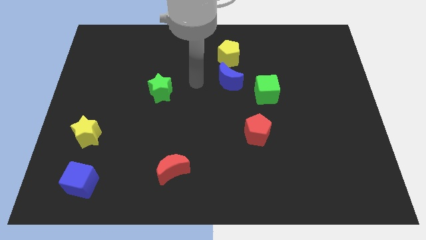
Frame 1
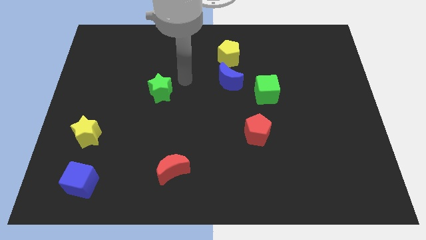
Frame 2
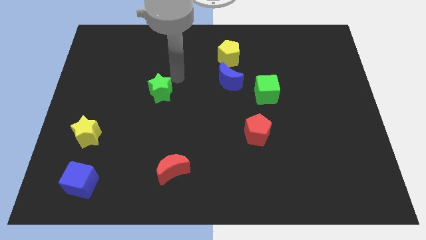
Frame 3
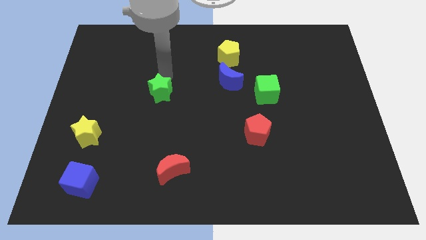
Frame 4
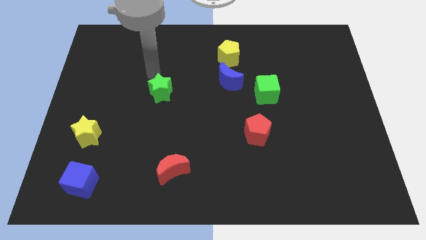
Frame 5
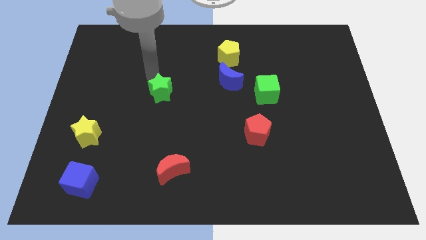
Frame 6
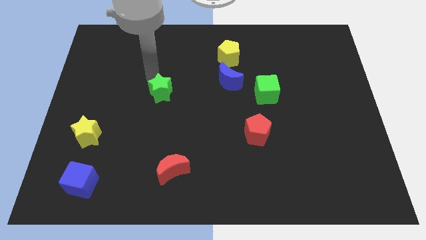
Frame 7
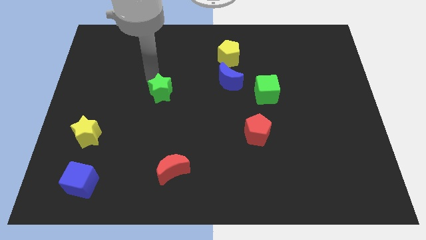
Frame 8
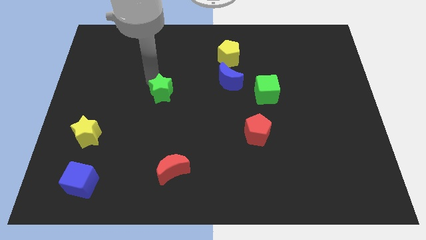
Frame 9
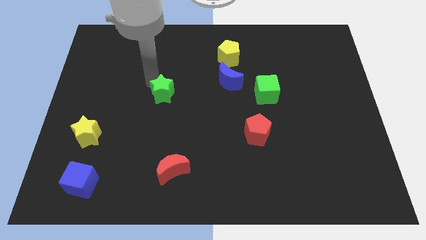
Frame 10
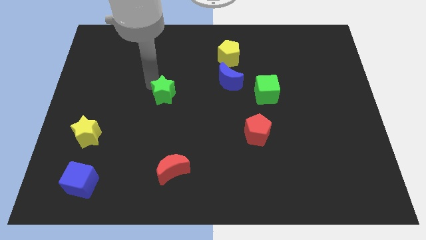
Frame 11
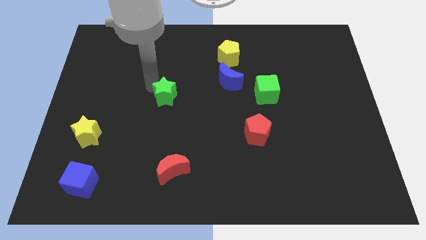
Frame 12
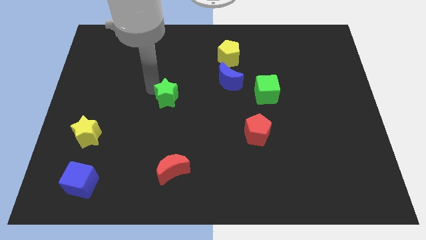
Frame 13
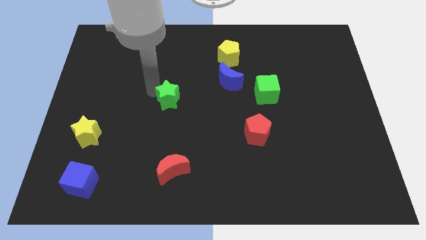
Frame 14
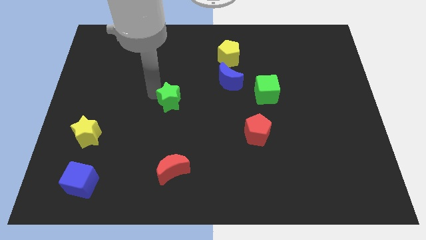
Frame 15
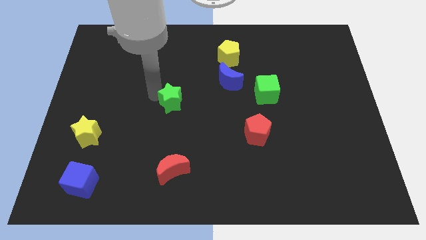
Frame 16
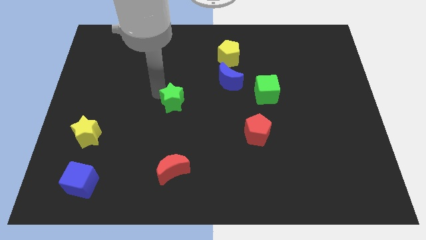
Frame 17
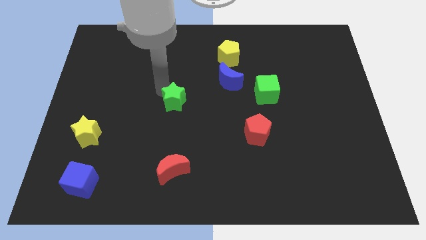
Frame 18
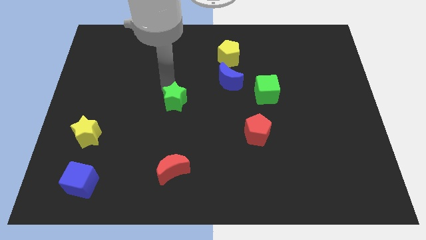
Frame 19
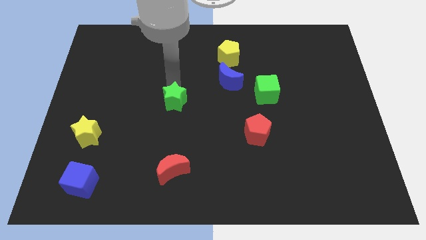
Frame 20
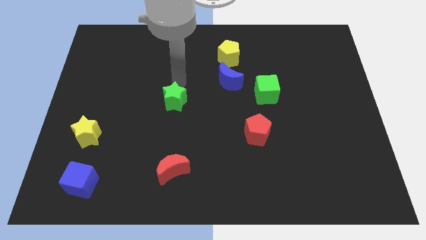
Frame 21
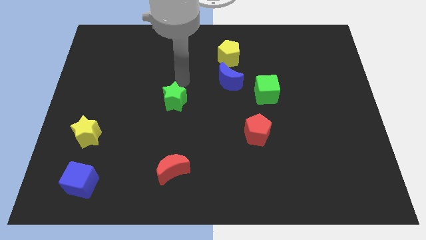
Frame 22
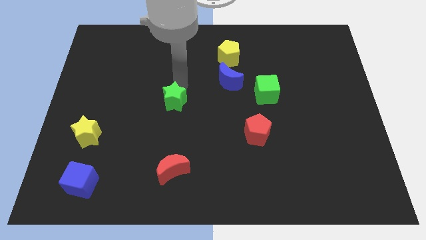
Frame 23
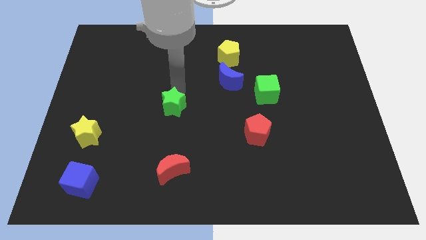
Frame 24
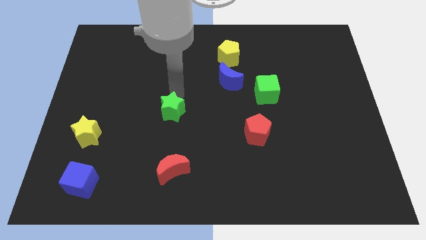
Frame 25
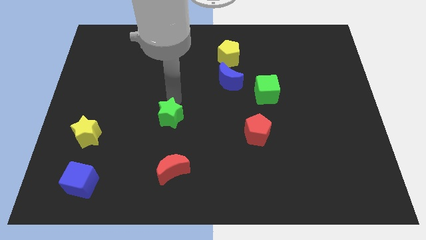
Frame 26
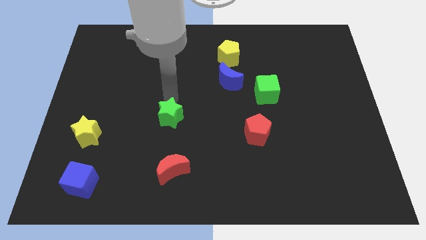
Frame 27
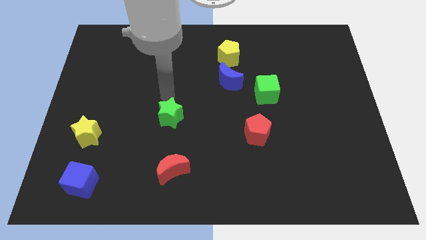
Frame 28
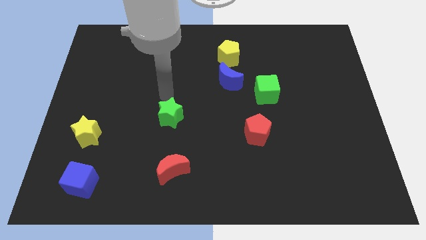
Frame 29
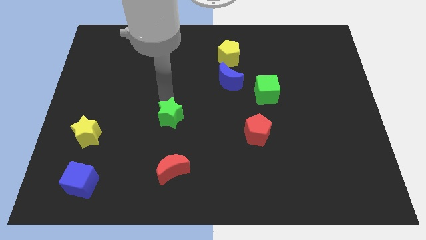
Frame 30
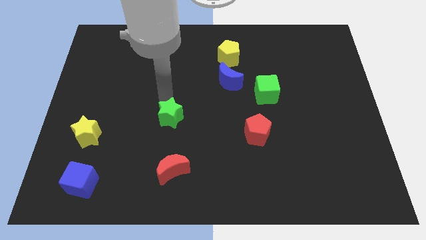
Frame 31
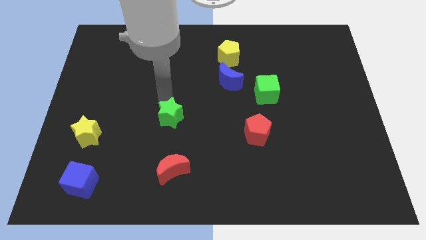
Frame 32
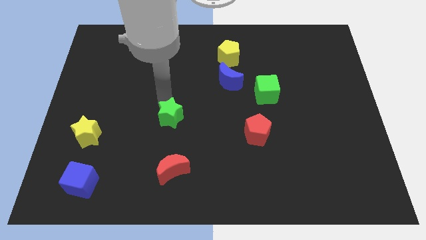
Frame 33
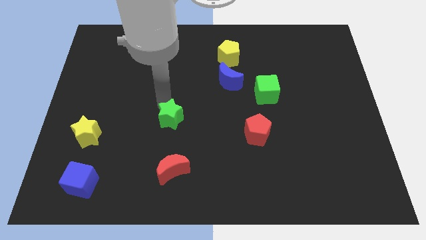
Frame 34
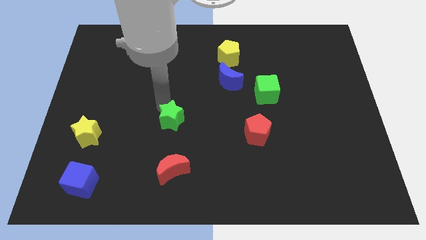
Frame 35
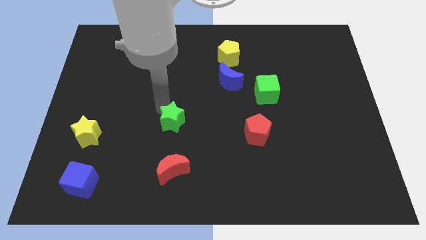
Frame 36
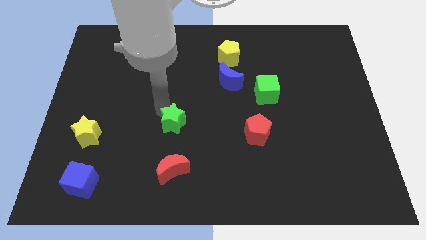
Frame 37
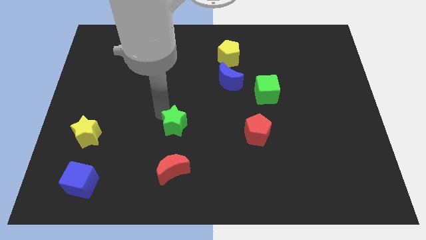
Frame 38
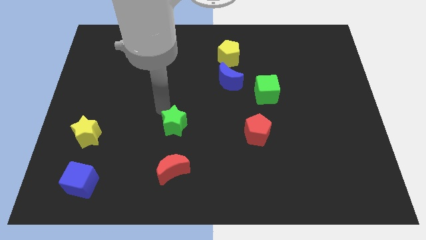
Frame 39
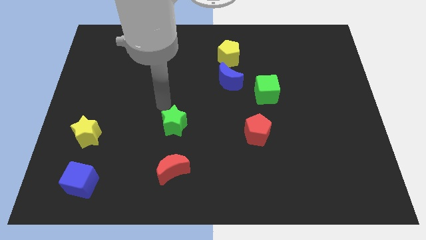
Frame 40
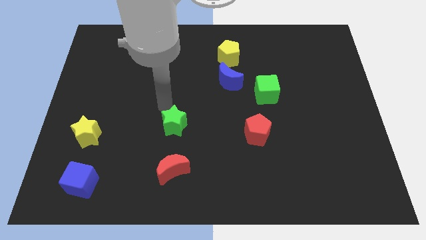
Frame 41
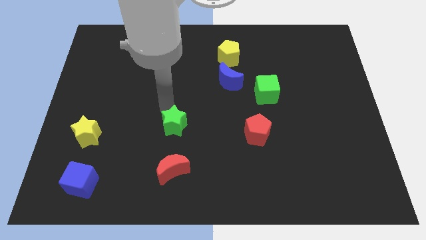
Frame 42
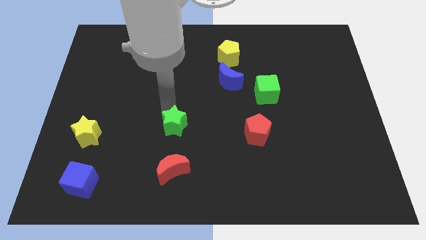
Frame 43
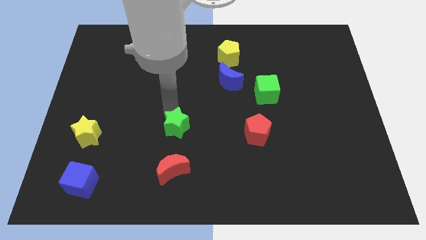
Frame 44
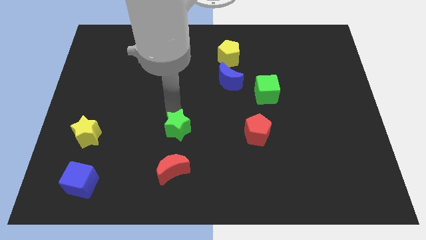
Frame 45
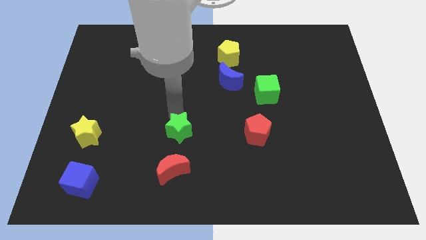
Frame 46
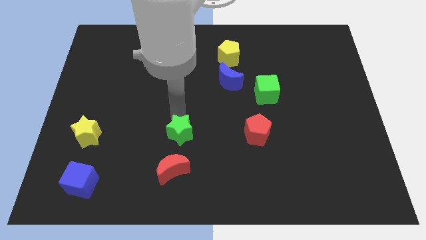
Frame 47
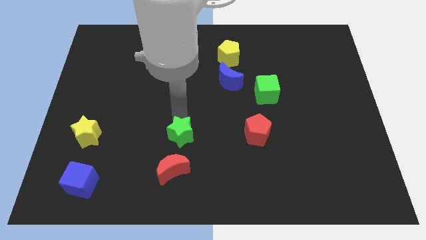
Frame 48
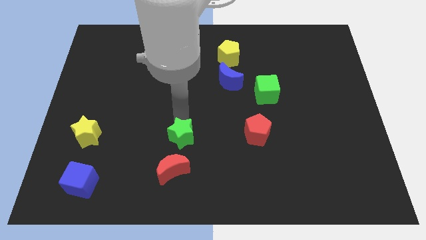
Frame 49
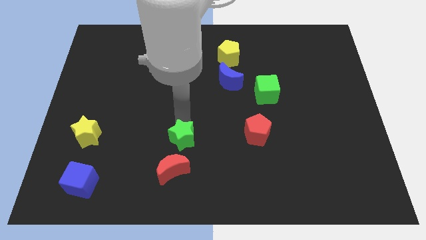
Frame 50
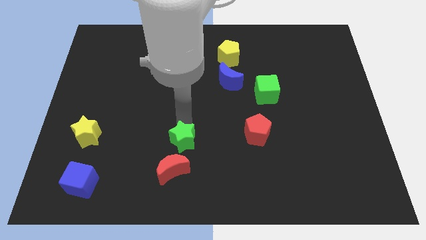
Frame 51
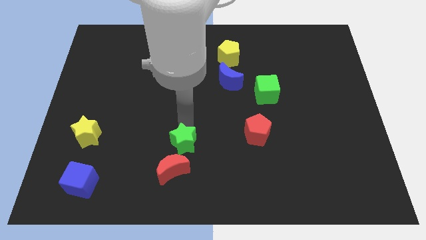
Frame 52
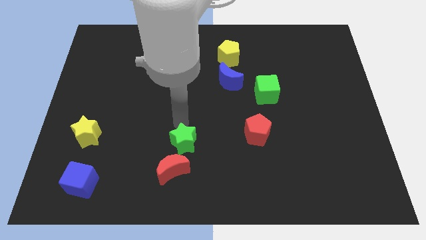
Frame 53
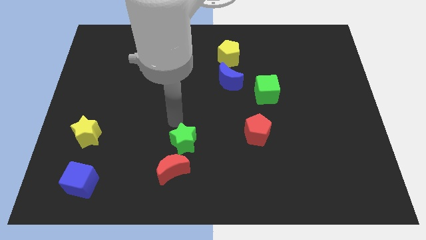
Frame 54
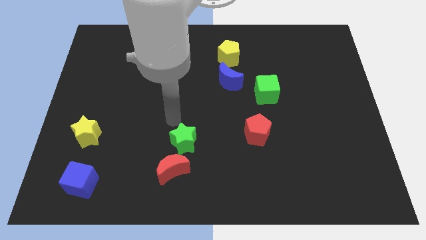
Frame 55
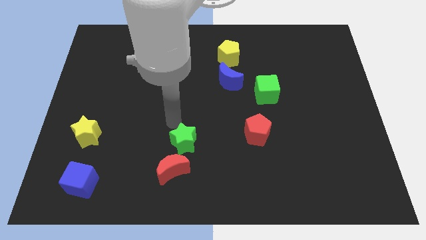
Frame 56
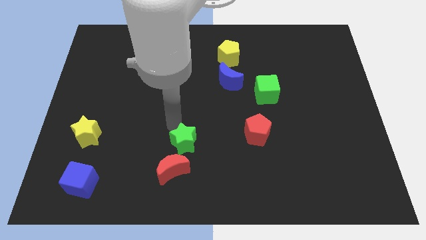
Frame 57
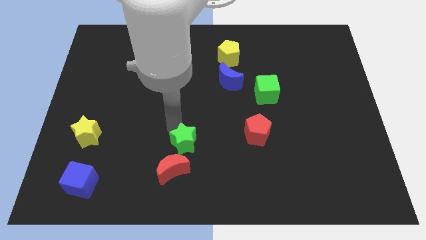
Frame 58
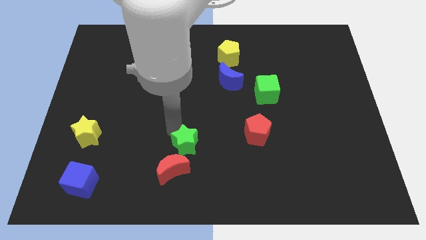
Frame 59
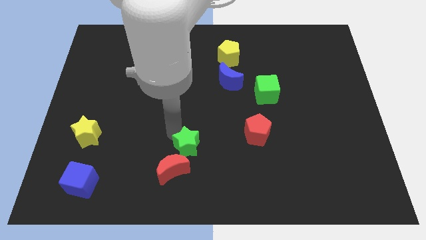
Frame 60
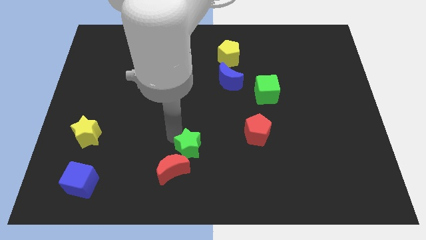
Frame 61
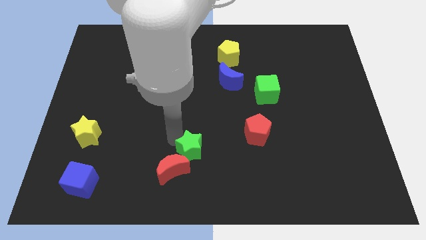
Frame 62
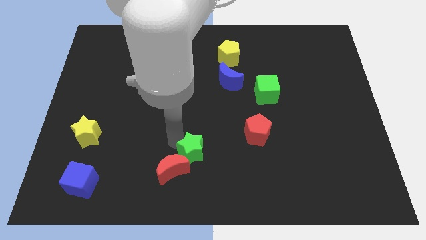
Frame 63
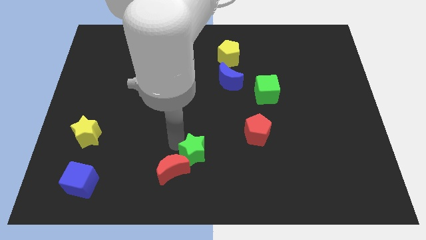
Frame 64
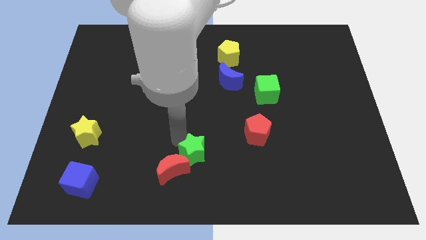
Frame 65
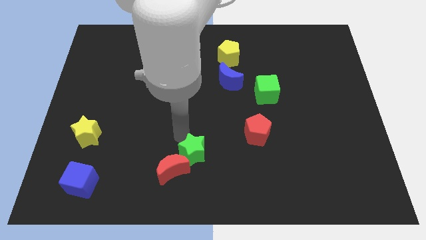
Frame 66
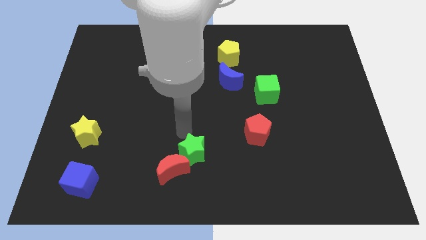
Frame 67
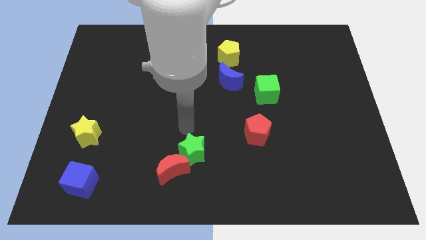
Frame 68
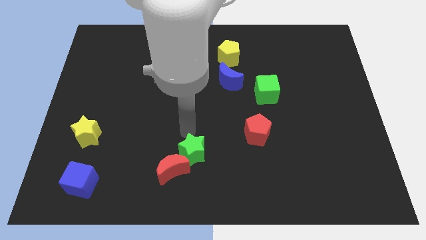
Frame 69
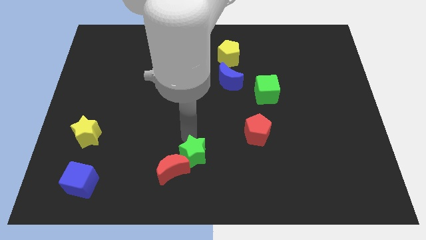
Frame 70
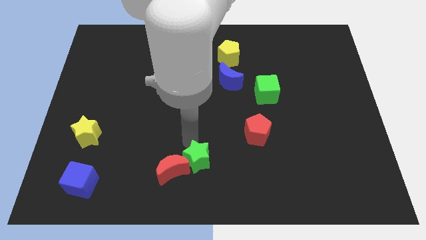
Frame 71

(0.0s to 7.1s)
move the green star to the bottom side
